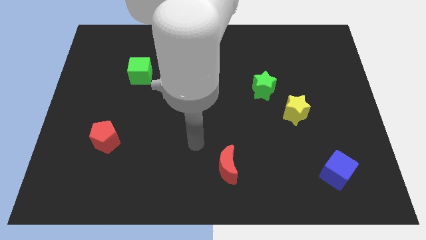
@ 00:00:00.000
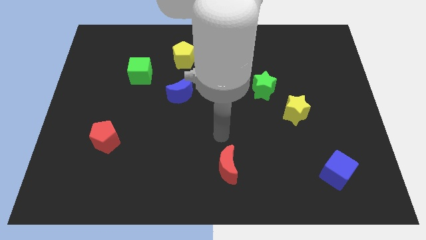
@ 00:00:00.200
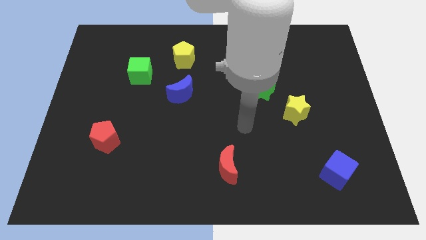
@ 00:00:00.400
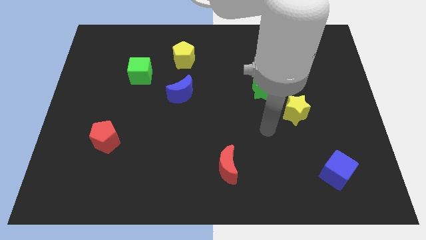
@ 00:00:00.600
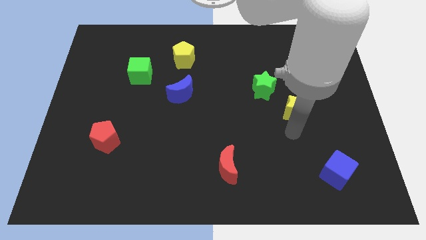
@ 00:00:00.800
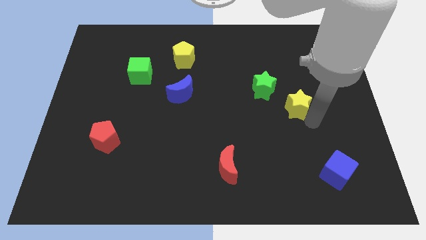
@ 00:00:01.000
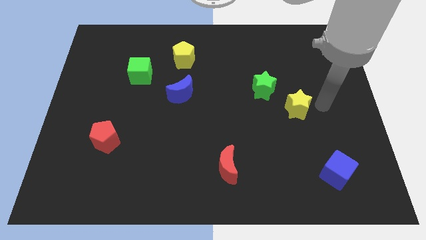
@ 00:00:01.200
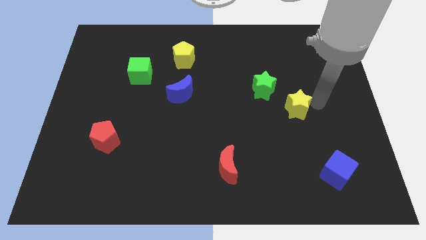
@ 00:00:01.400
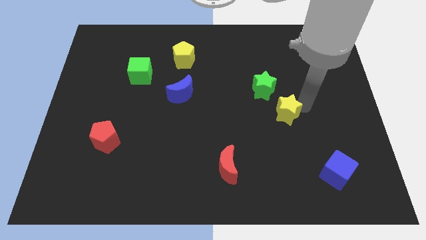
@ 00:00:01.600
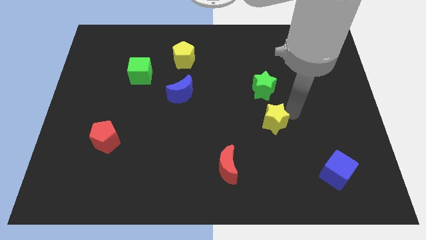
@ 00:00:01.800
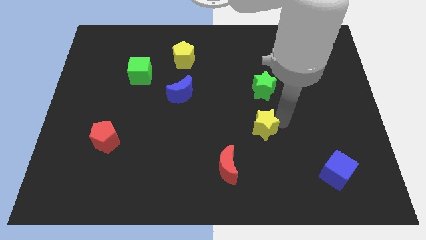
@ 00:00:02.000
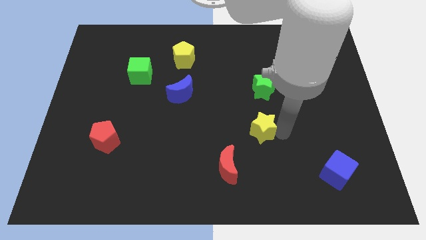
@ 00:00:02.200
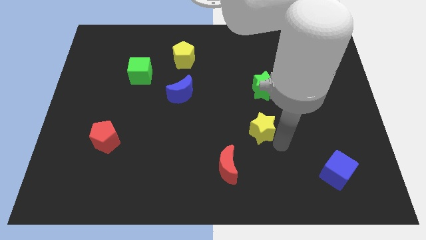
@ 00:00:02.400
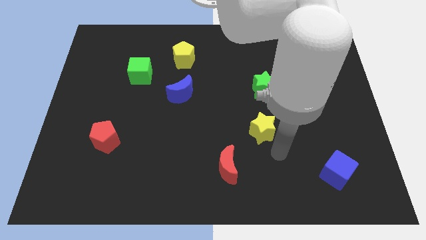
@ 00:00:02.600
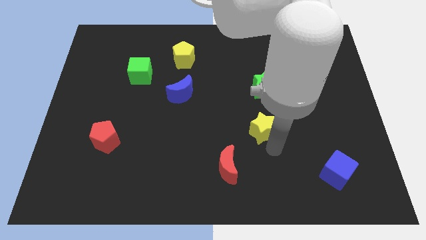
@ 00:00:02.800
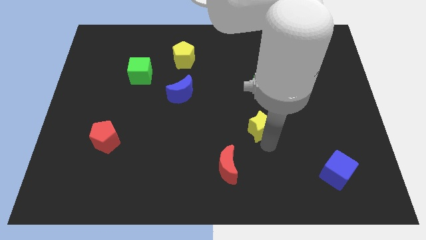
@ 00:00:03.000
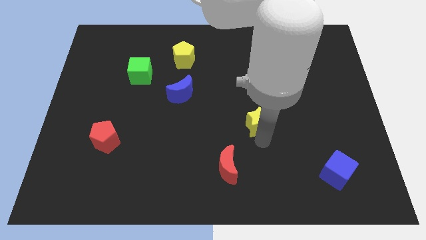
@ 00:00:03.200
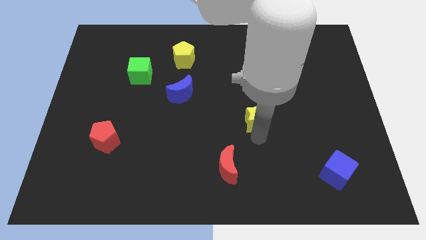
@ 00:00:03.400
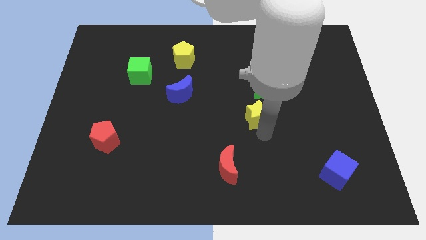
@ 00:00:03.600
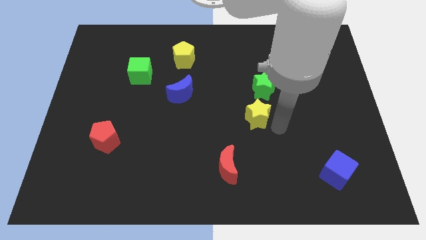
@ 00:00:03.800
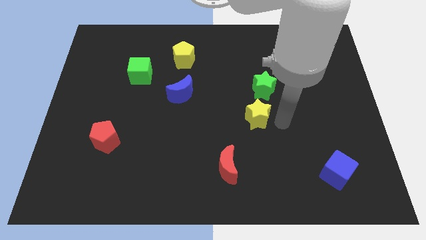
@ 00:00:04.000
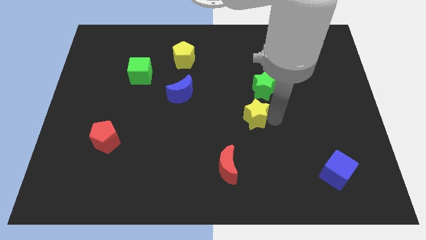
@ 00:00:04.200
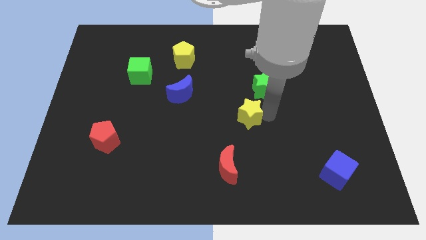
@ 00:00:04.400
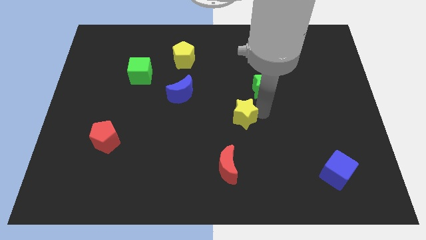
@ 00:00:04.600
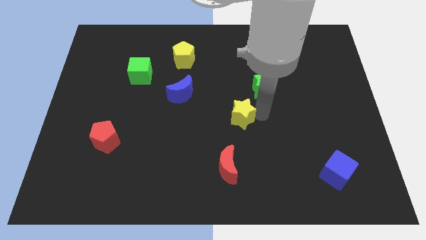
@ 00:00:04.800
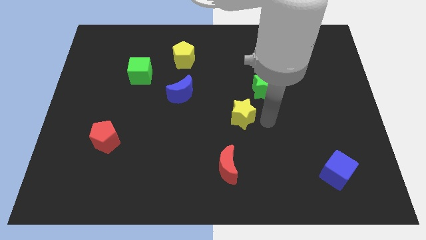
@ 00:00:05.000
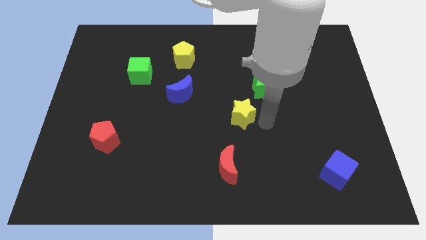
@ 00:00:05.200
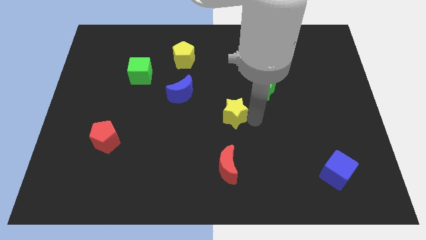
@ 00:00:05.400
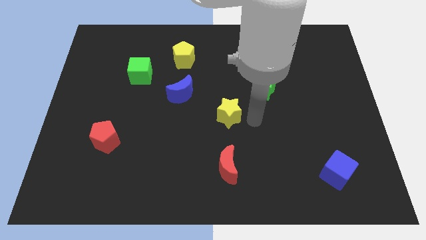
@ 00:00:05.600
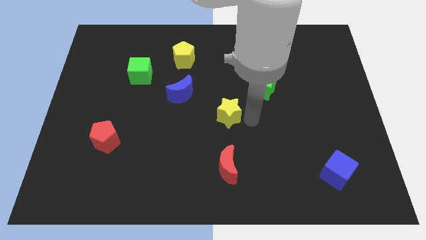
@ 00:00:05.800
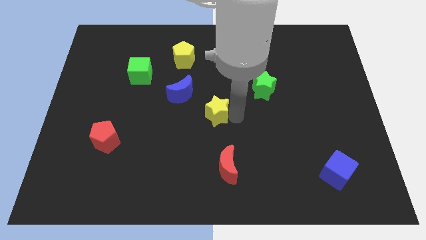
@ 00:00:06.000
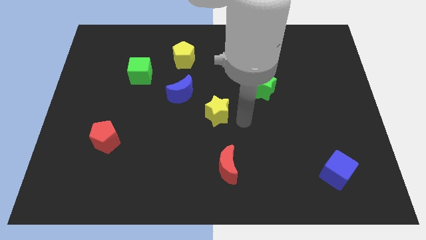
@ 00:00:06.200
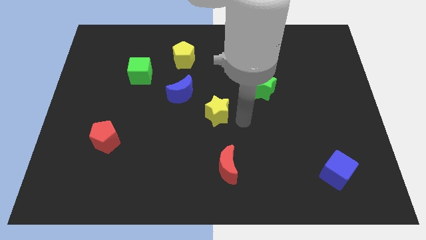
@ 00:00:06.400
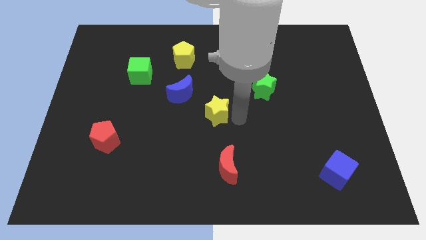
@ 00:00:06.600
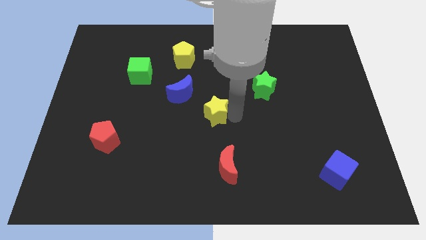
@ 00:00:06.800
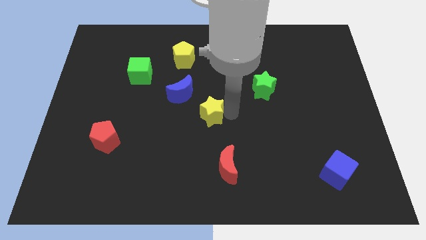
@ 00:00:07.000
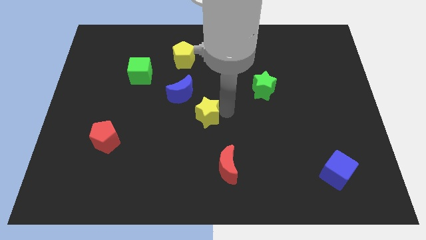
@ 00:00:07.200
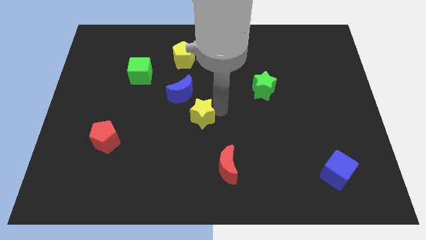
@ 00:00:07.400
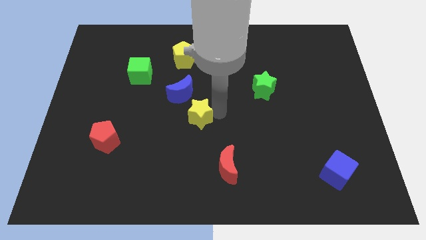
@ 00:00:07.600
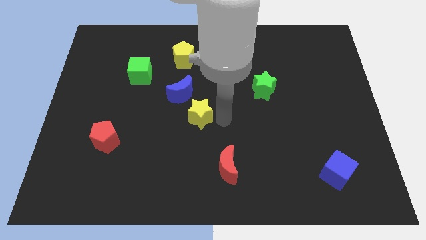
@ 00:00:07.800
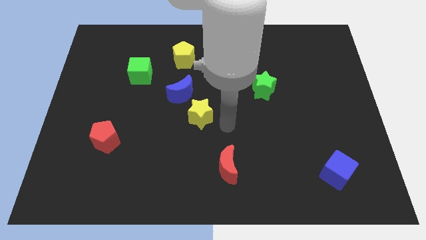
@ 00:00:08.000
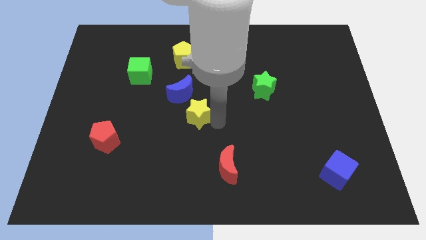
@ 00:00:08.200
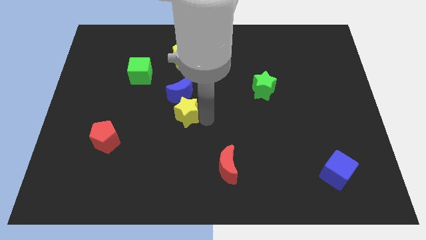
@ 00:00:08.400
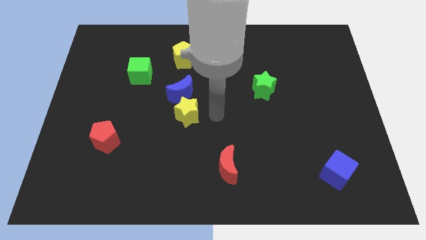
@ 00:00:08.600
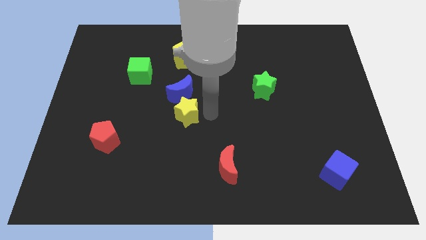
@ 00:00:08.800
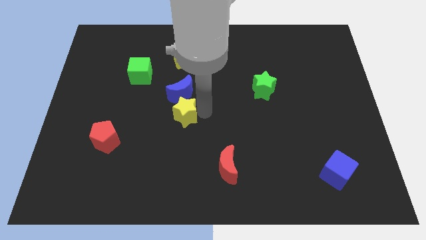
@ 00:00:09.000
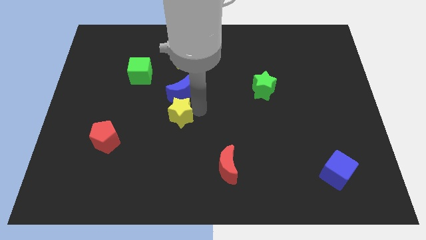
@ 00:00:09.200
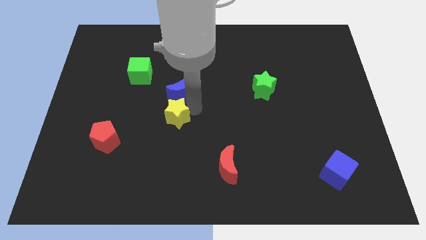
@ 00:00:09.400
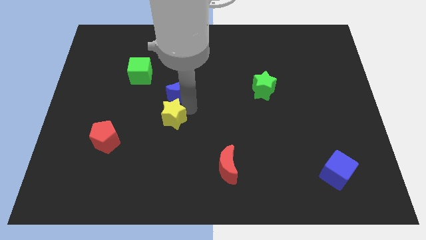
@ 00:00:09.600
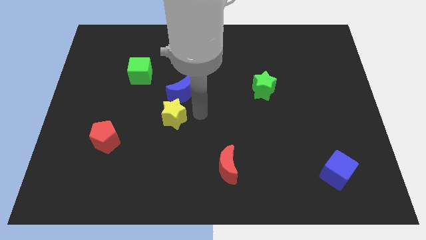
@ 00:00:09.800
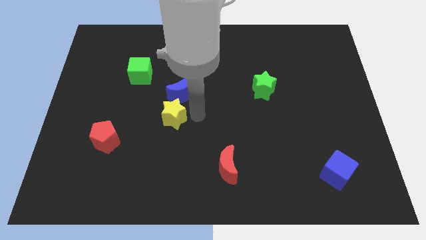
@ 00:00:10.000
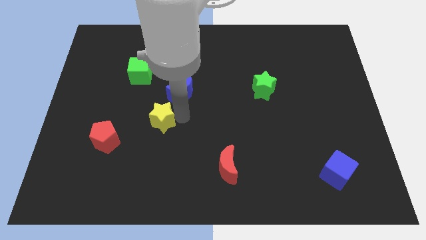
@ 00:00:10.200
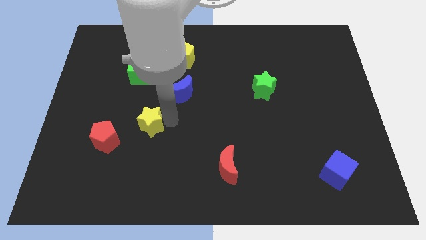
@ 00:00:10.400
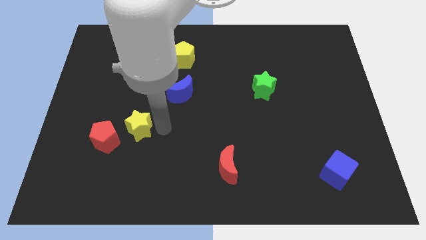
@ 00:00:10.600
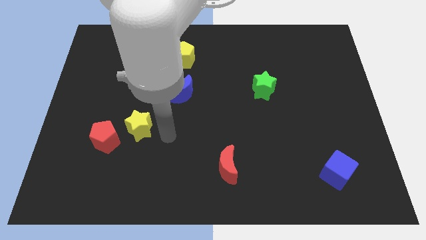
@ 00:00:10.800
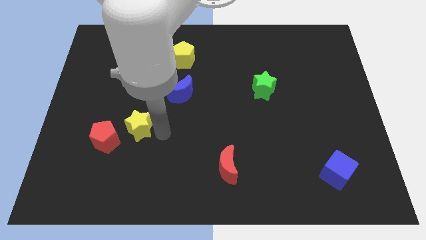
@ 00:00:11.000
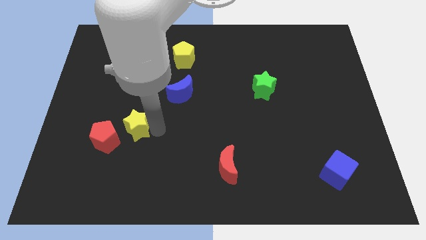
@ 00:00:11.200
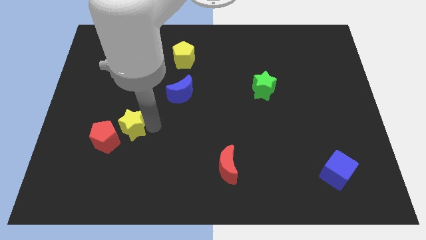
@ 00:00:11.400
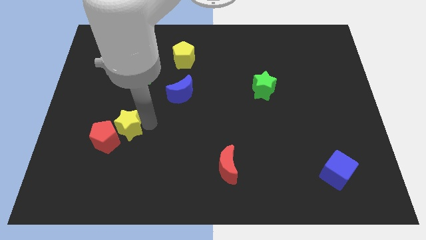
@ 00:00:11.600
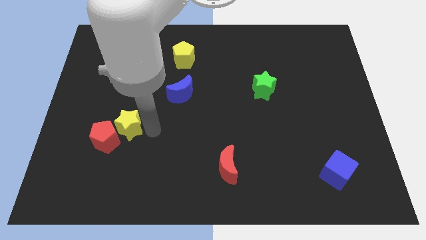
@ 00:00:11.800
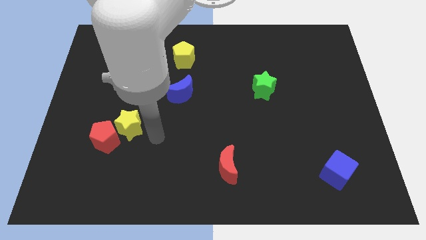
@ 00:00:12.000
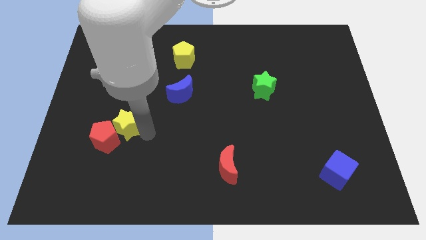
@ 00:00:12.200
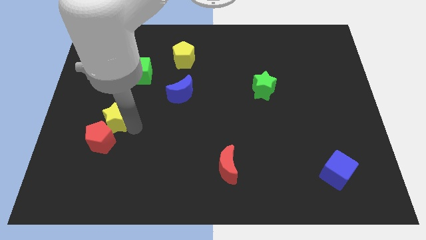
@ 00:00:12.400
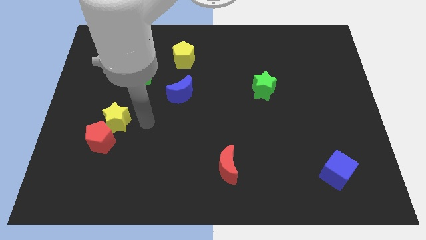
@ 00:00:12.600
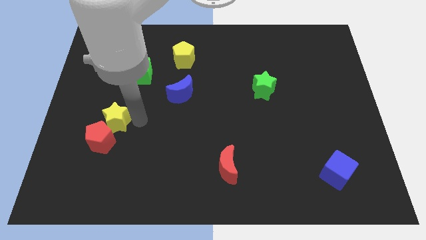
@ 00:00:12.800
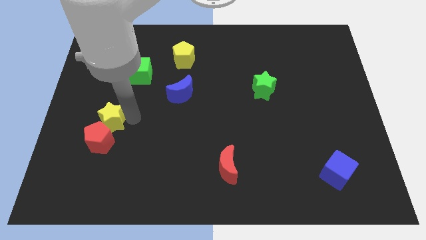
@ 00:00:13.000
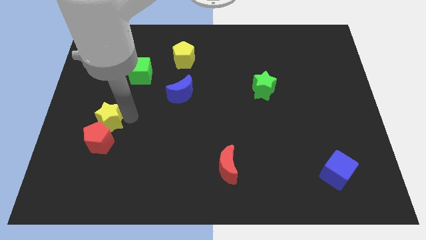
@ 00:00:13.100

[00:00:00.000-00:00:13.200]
put the yellow star diagonally up and to the left of the red pentagon

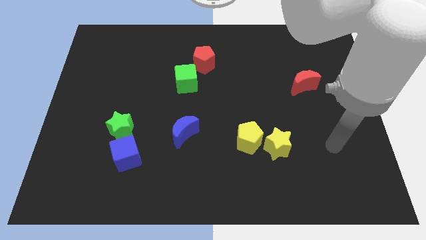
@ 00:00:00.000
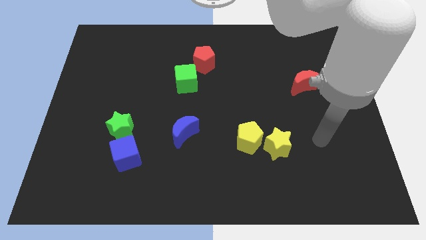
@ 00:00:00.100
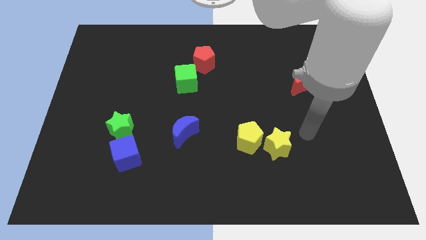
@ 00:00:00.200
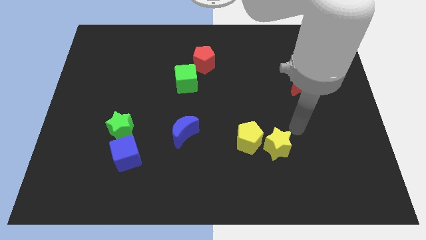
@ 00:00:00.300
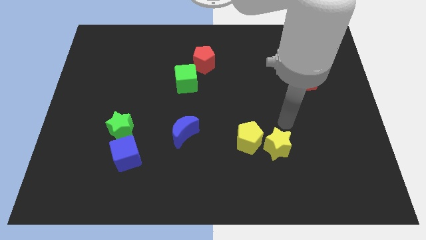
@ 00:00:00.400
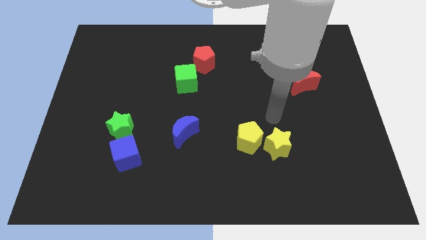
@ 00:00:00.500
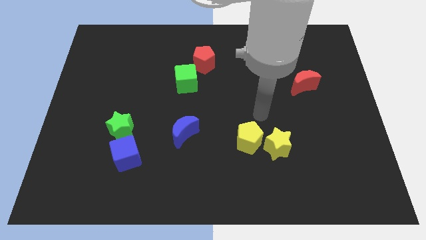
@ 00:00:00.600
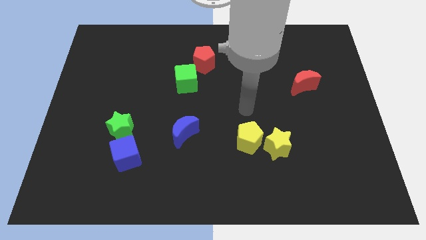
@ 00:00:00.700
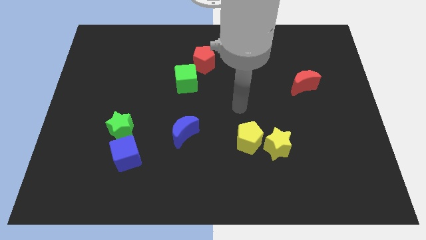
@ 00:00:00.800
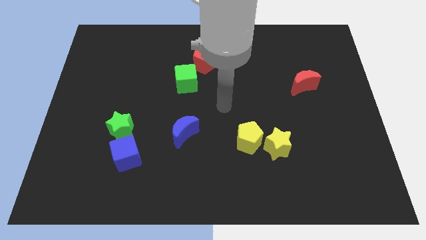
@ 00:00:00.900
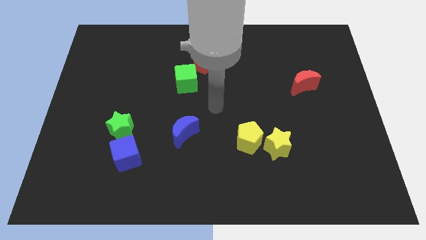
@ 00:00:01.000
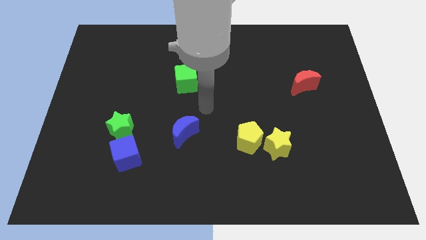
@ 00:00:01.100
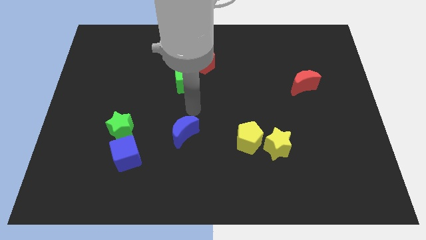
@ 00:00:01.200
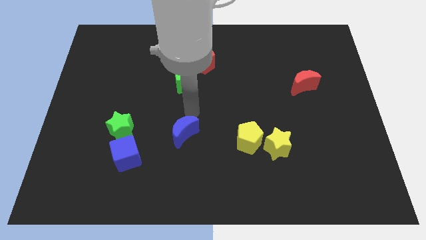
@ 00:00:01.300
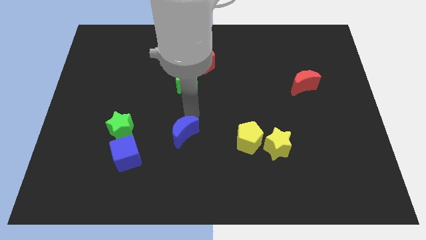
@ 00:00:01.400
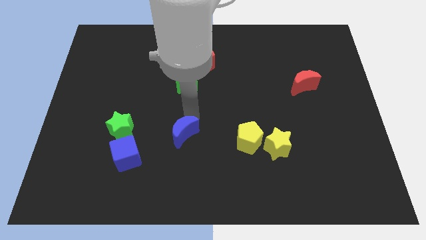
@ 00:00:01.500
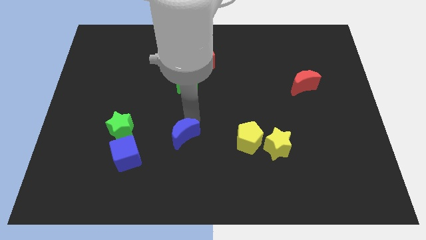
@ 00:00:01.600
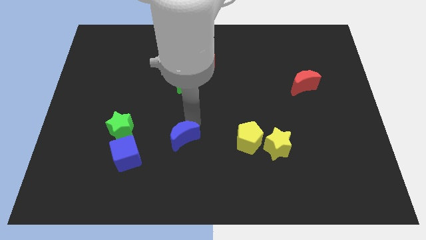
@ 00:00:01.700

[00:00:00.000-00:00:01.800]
push the blue moon to the right of the blue cube
